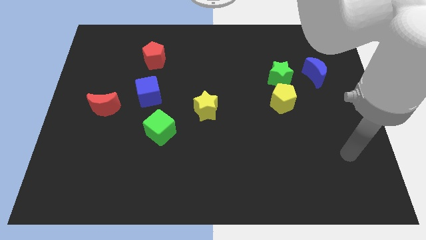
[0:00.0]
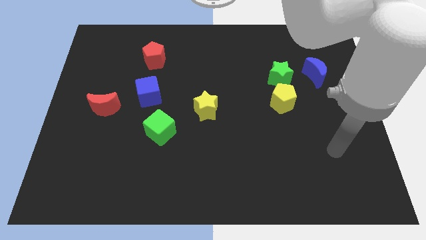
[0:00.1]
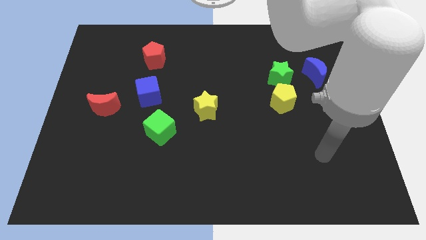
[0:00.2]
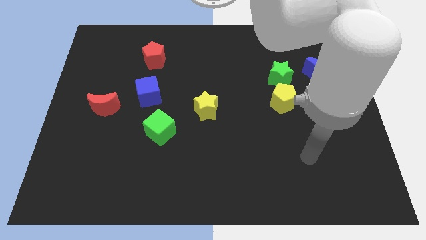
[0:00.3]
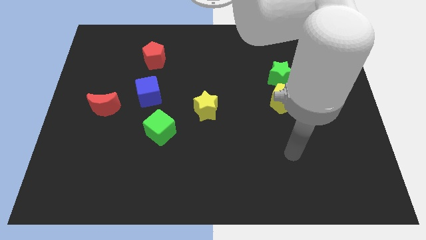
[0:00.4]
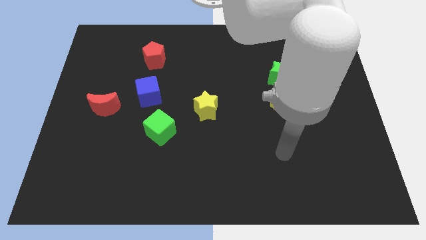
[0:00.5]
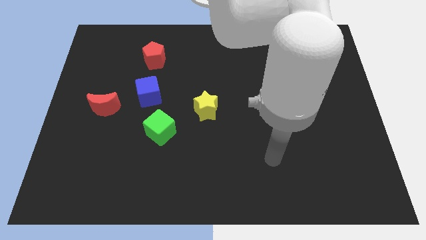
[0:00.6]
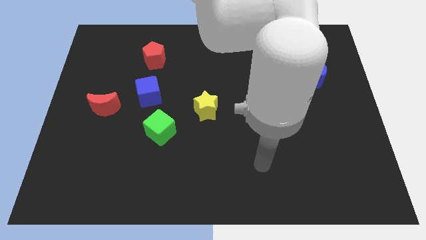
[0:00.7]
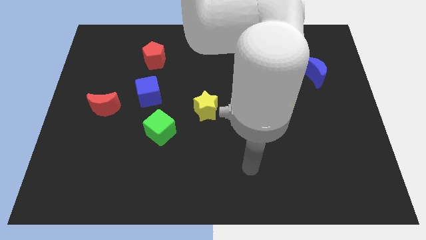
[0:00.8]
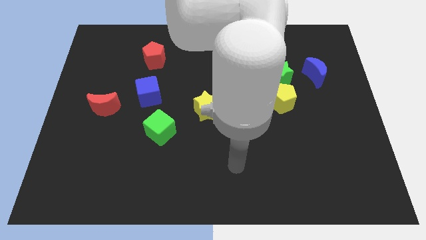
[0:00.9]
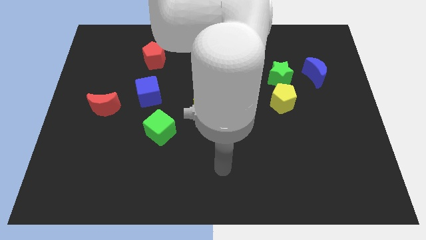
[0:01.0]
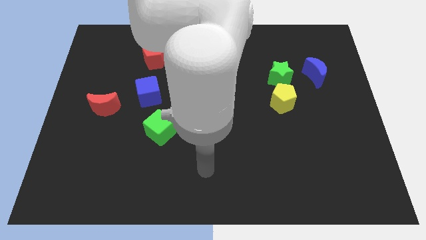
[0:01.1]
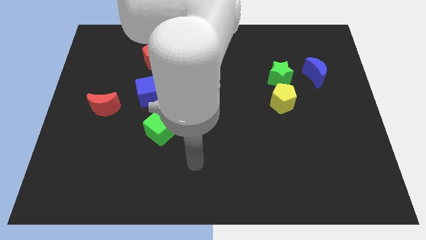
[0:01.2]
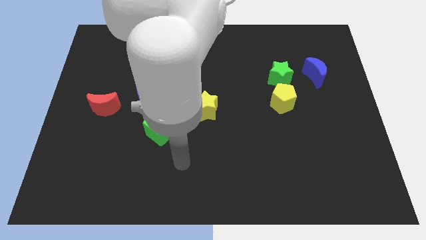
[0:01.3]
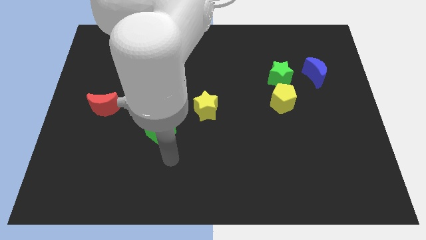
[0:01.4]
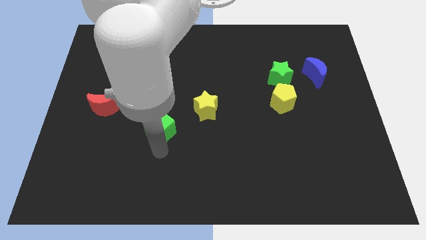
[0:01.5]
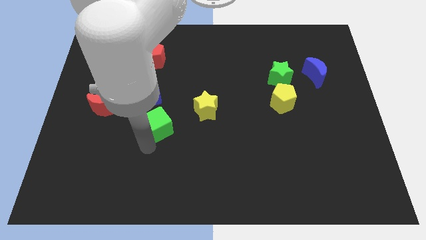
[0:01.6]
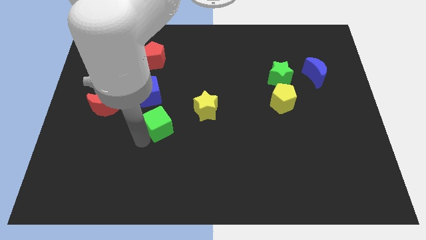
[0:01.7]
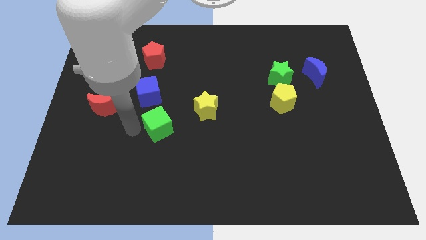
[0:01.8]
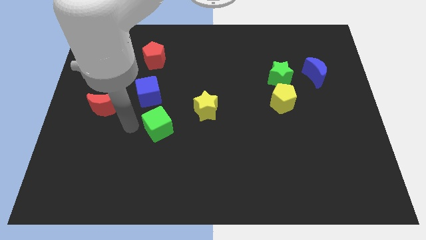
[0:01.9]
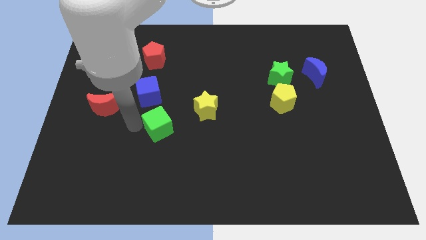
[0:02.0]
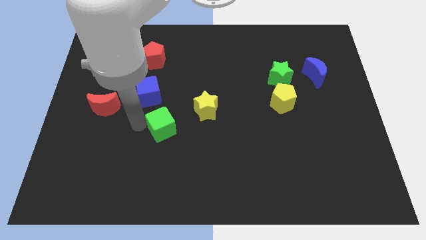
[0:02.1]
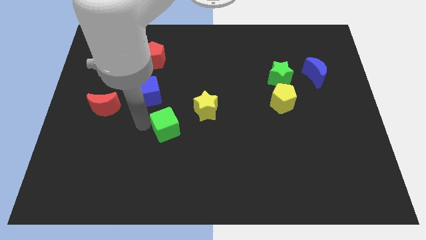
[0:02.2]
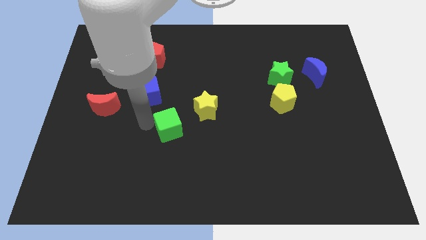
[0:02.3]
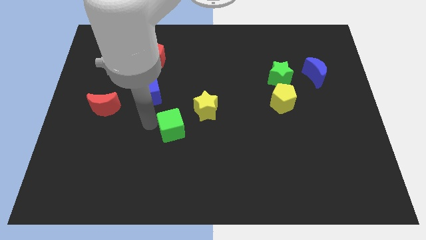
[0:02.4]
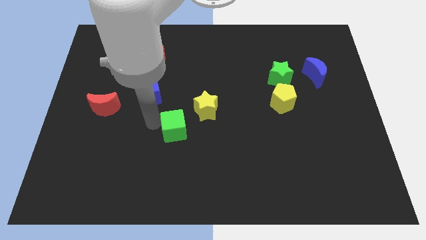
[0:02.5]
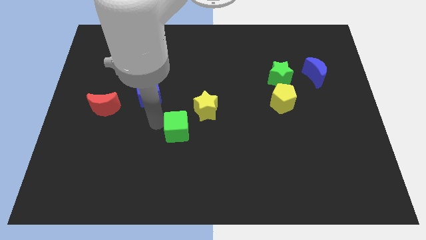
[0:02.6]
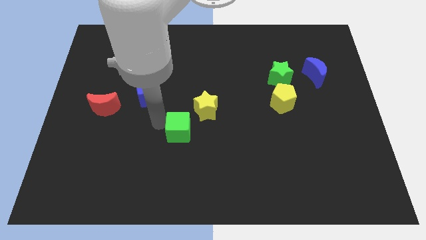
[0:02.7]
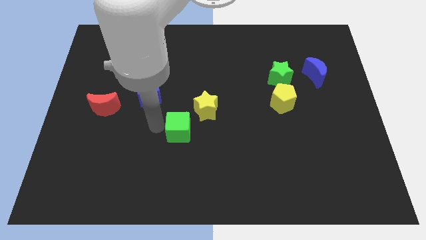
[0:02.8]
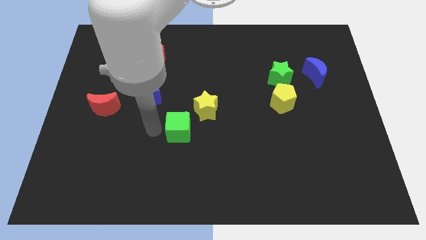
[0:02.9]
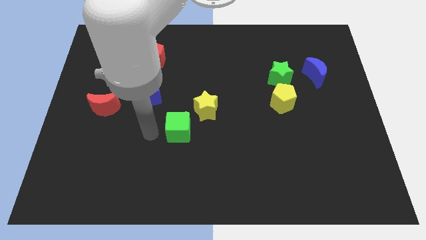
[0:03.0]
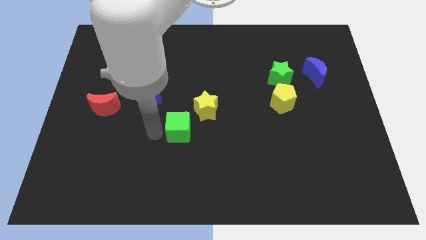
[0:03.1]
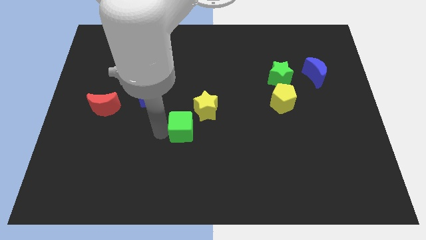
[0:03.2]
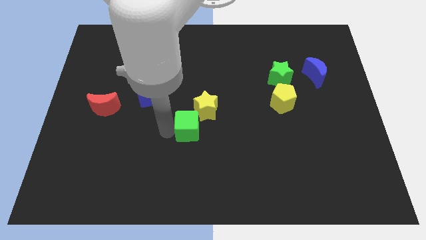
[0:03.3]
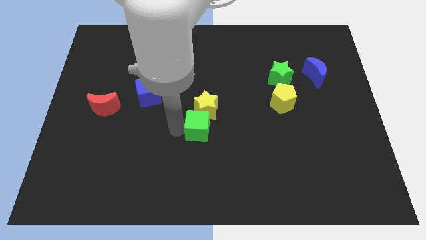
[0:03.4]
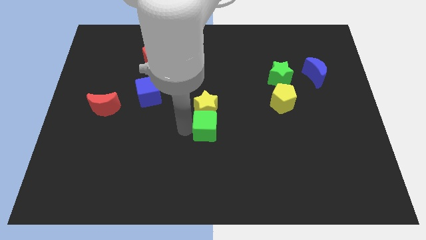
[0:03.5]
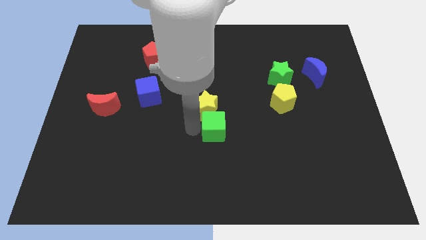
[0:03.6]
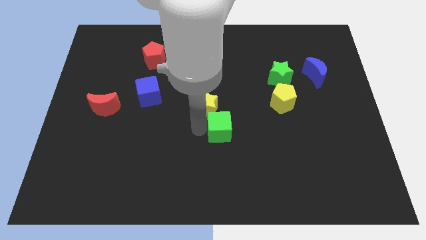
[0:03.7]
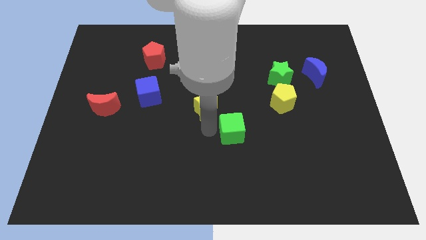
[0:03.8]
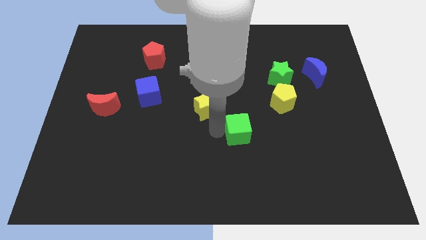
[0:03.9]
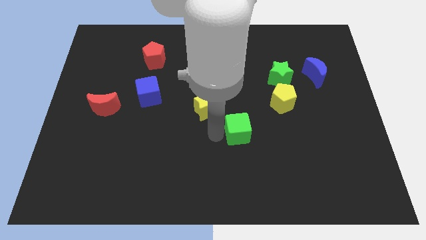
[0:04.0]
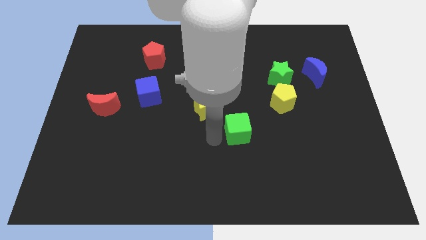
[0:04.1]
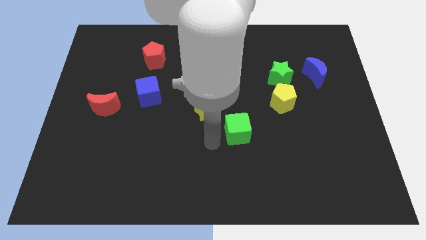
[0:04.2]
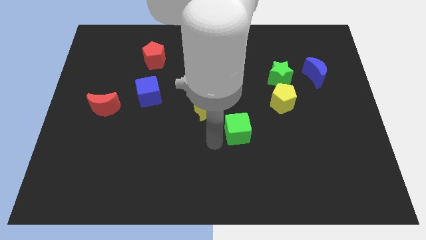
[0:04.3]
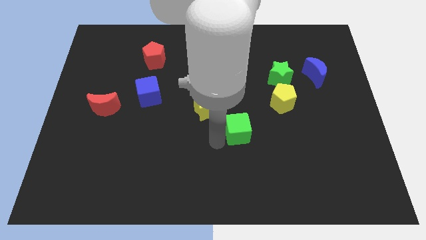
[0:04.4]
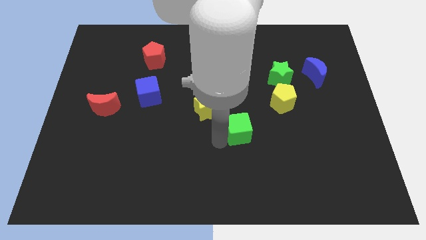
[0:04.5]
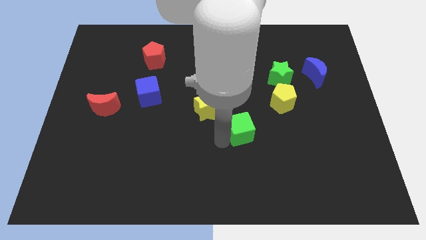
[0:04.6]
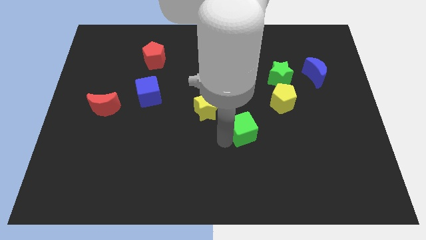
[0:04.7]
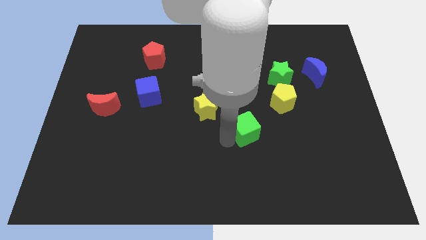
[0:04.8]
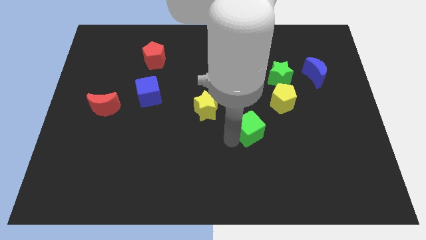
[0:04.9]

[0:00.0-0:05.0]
push the green cube right

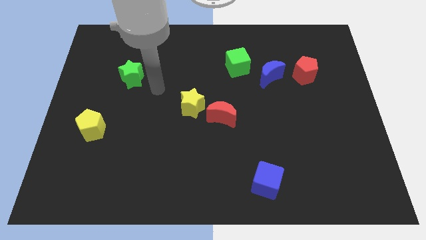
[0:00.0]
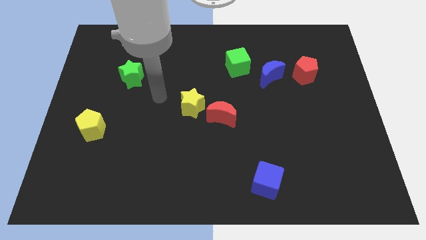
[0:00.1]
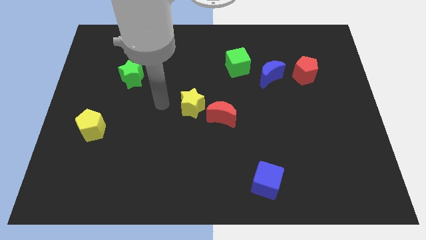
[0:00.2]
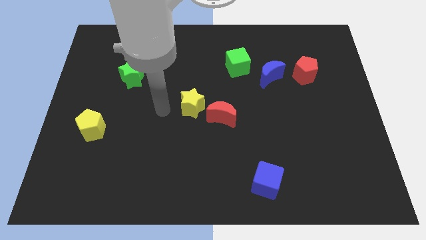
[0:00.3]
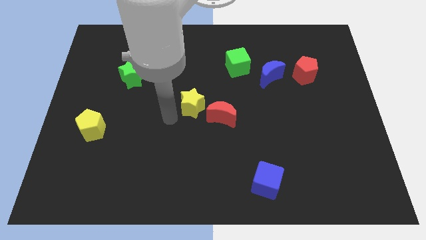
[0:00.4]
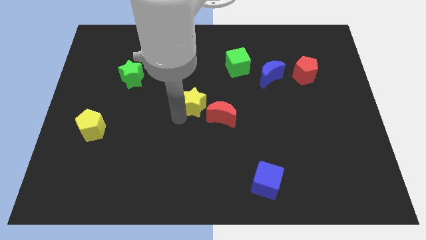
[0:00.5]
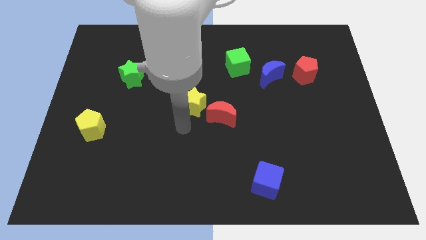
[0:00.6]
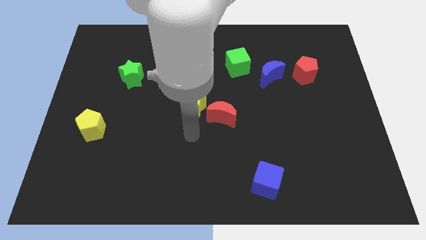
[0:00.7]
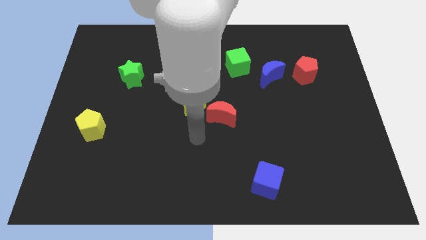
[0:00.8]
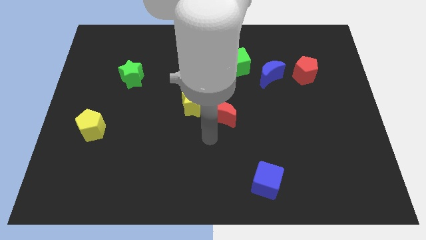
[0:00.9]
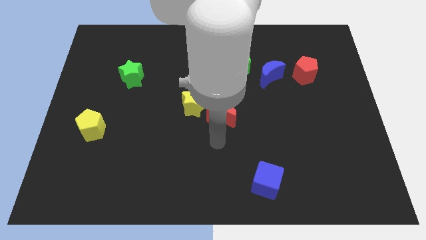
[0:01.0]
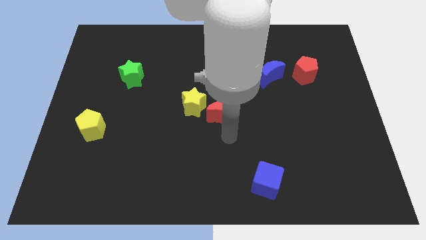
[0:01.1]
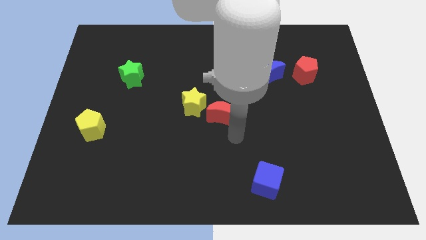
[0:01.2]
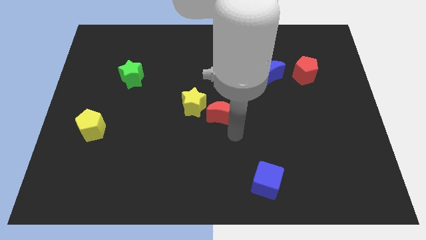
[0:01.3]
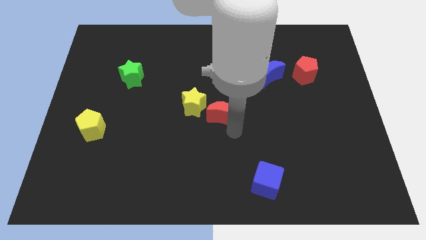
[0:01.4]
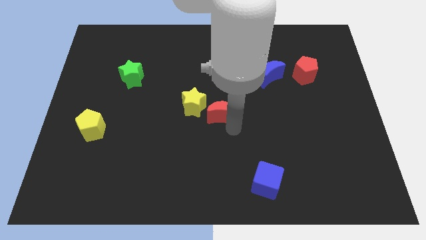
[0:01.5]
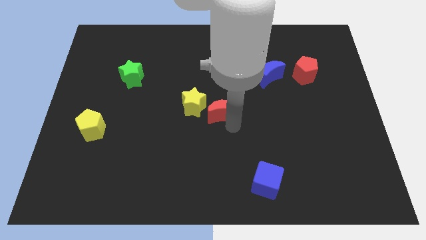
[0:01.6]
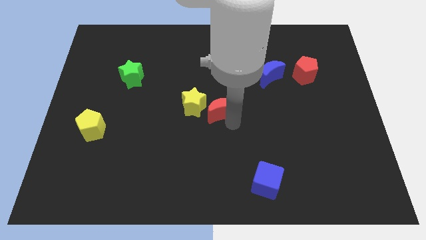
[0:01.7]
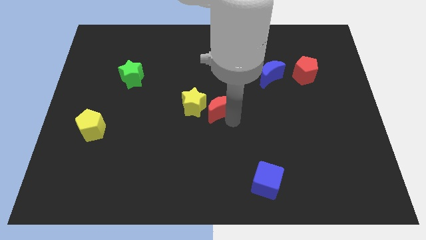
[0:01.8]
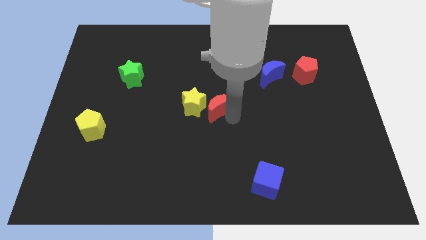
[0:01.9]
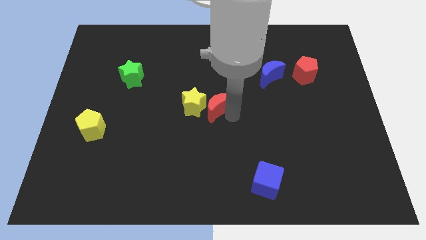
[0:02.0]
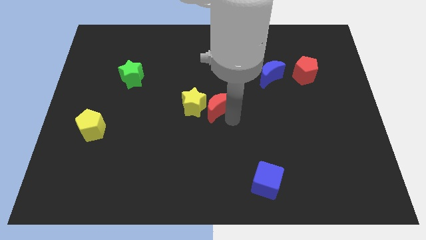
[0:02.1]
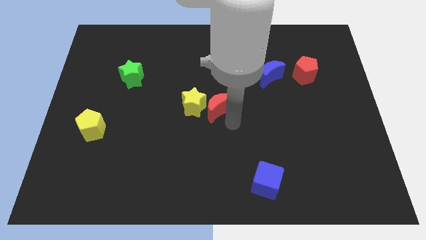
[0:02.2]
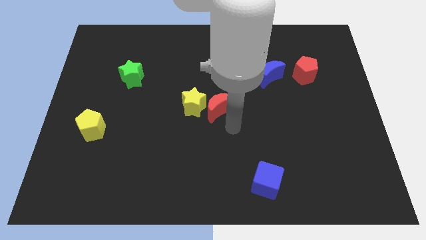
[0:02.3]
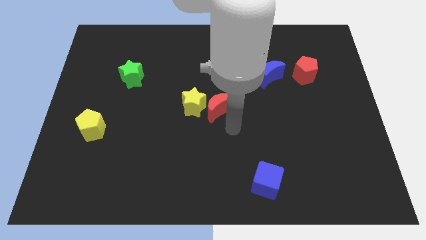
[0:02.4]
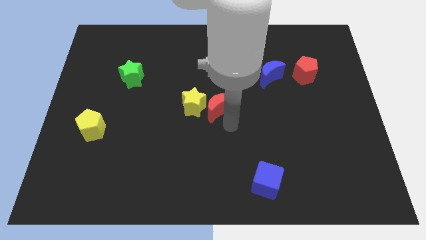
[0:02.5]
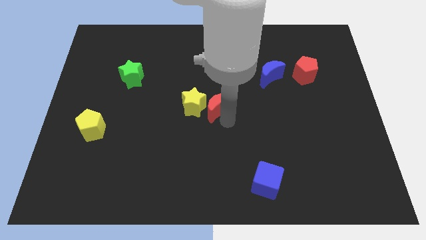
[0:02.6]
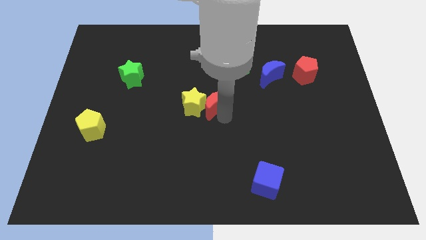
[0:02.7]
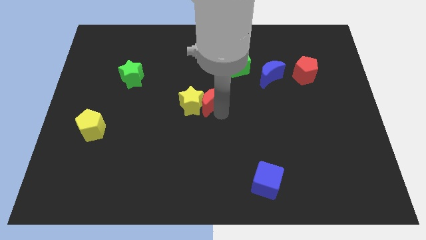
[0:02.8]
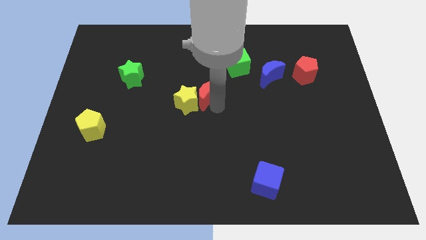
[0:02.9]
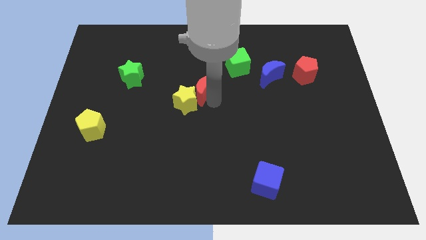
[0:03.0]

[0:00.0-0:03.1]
move the red moon a bit up and to the left diagonally
